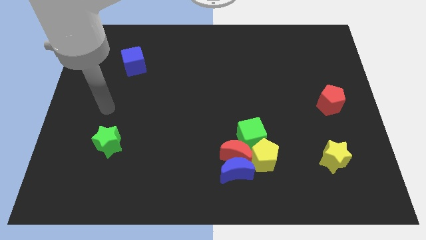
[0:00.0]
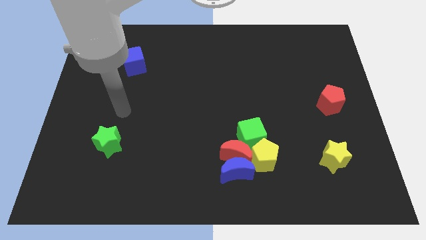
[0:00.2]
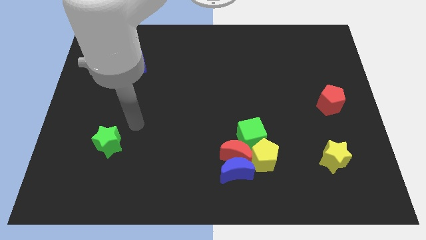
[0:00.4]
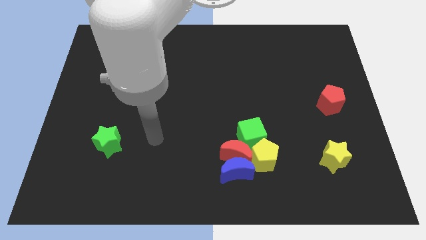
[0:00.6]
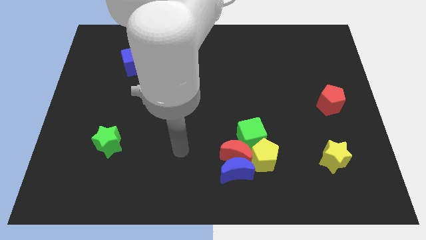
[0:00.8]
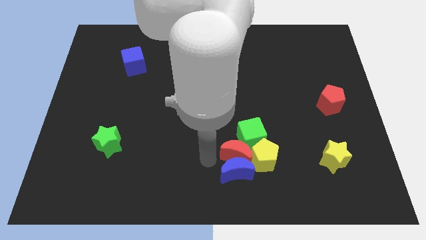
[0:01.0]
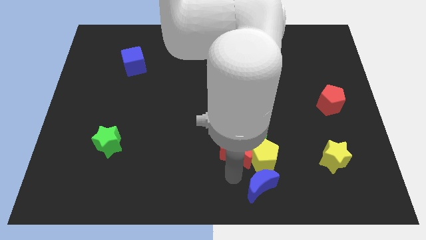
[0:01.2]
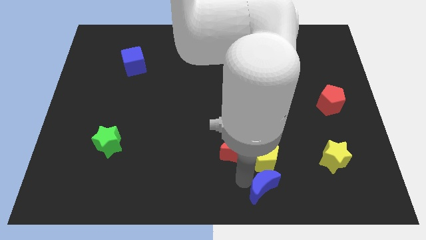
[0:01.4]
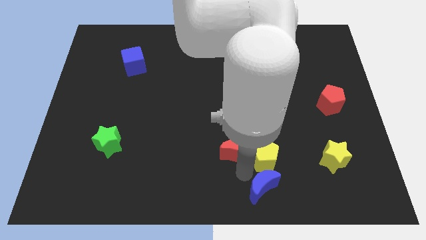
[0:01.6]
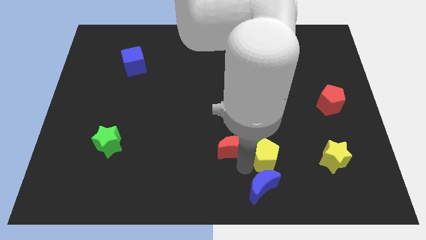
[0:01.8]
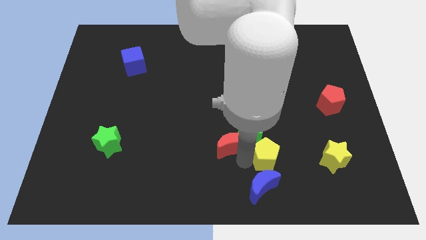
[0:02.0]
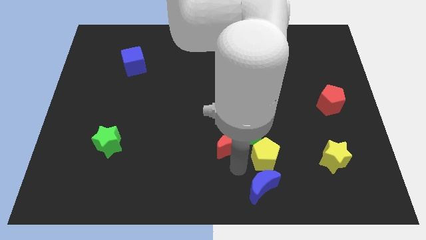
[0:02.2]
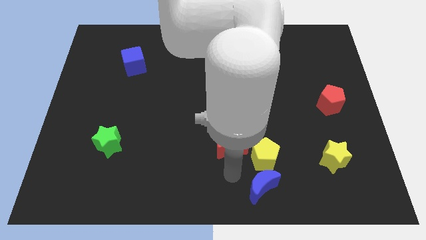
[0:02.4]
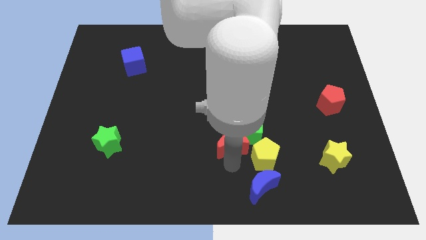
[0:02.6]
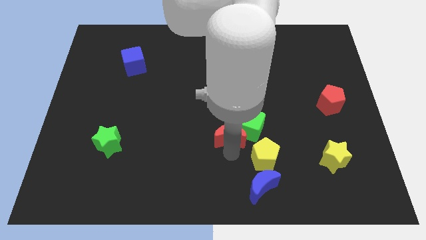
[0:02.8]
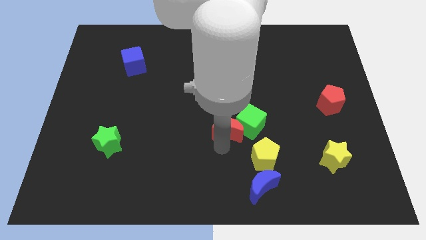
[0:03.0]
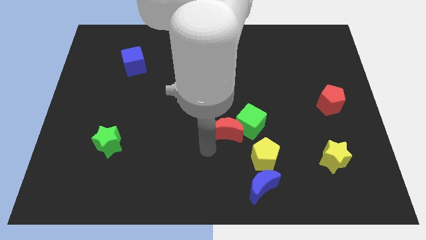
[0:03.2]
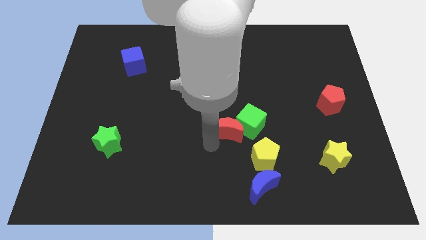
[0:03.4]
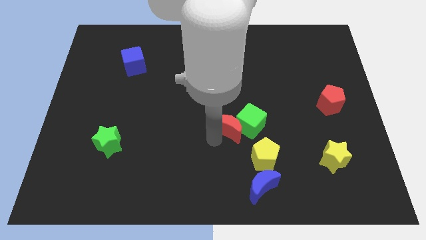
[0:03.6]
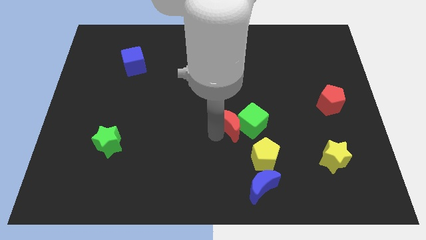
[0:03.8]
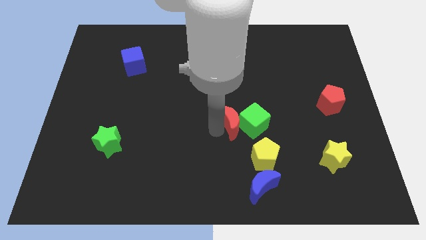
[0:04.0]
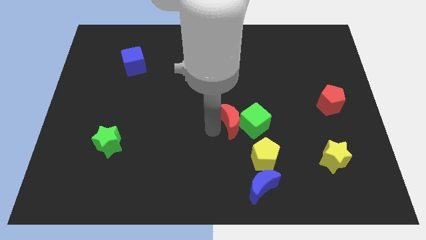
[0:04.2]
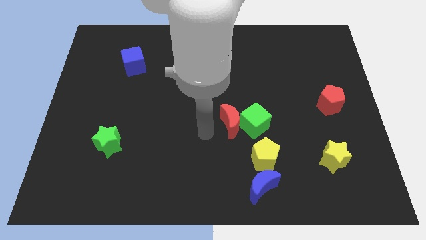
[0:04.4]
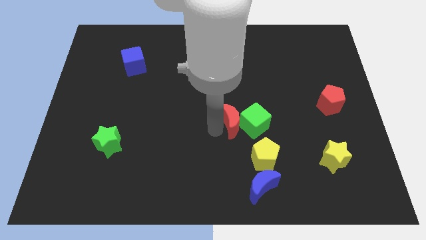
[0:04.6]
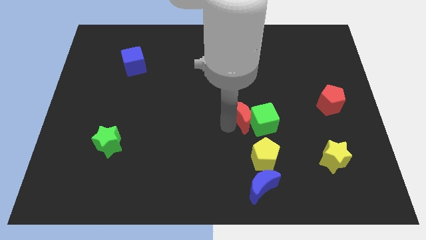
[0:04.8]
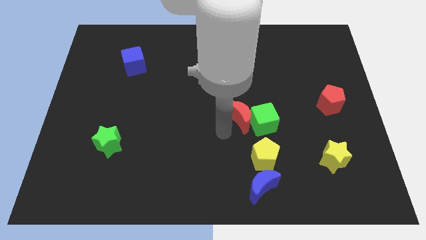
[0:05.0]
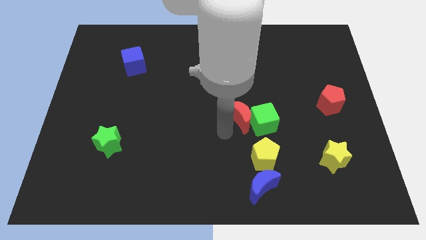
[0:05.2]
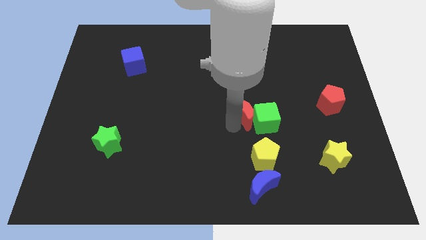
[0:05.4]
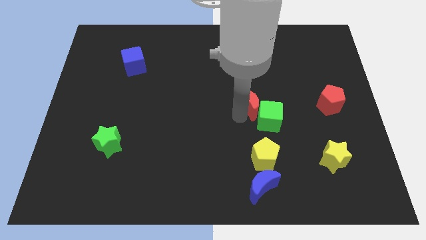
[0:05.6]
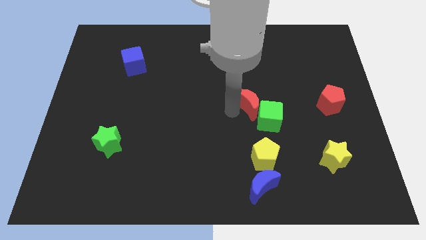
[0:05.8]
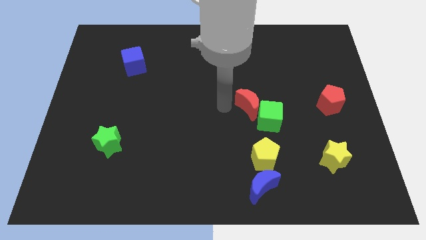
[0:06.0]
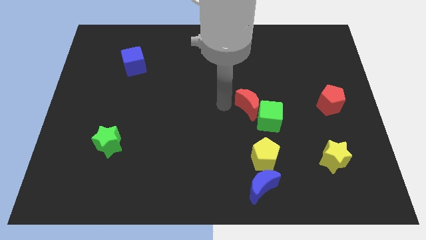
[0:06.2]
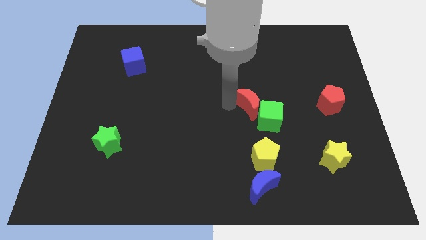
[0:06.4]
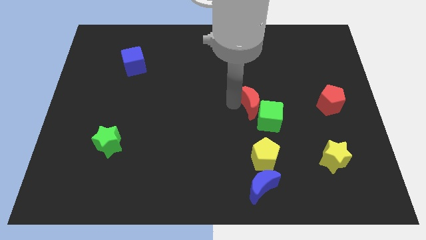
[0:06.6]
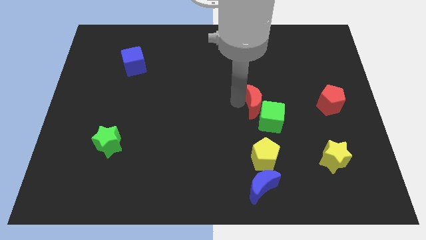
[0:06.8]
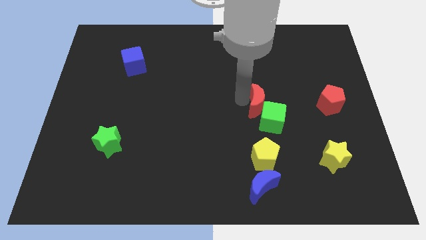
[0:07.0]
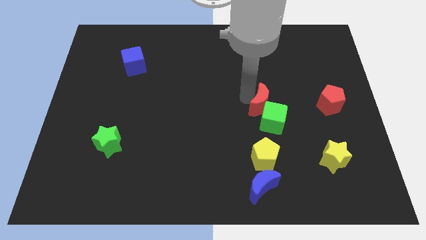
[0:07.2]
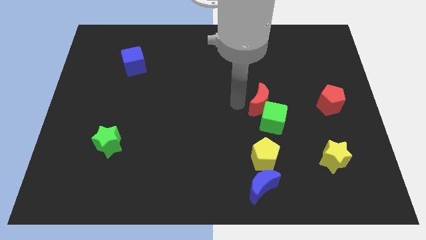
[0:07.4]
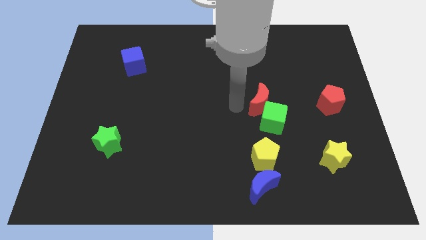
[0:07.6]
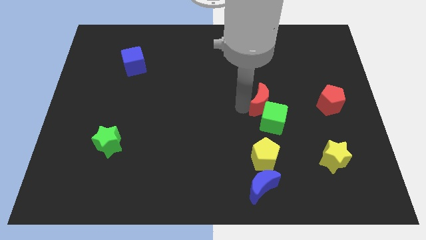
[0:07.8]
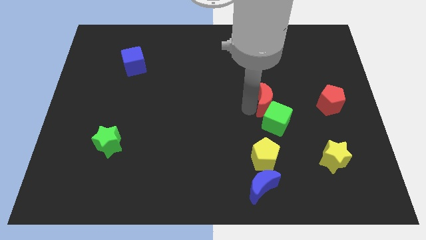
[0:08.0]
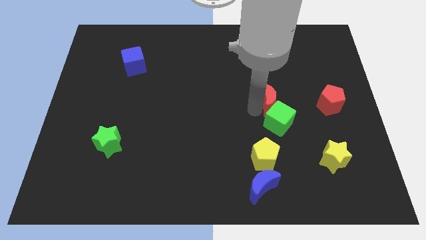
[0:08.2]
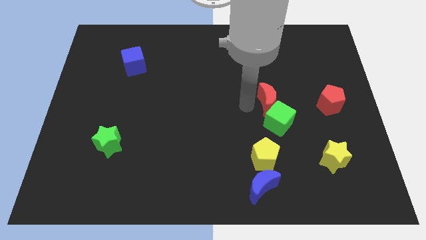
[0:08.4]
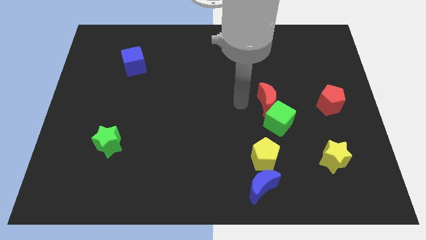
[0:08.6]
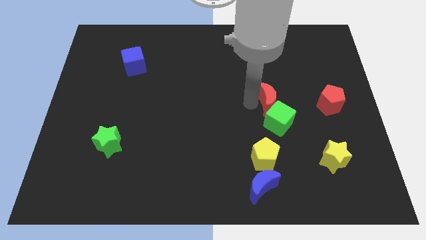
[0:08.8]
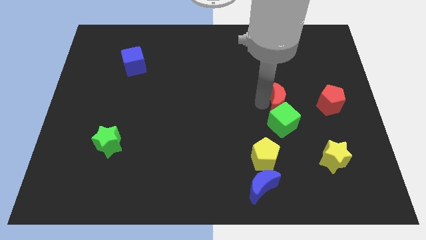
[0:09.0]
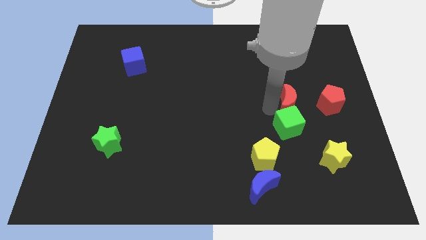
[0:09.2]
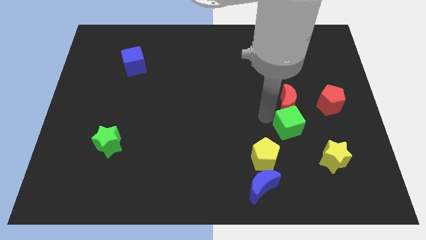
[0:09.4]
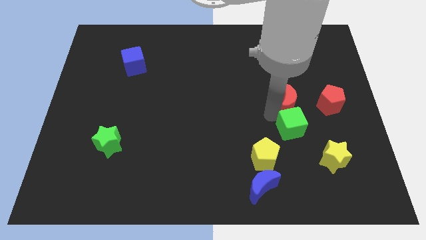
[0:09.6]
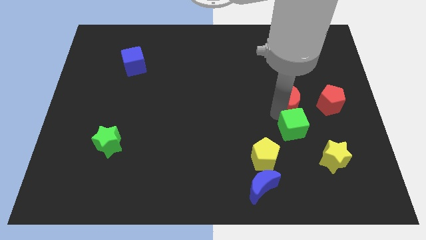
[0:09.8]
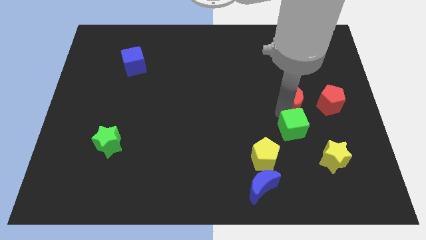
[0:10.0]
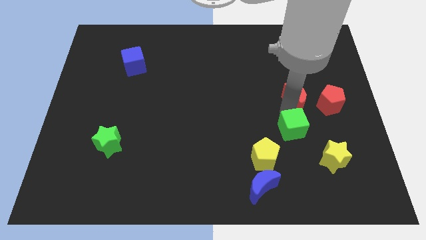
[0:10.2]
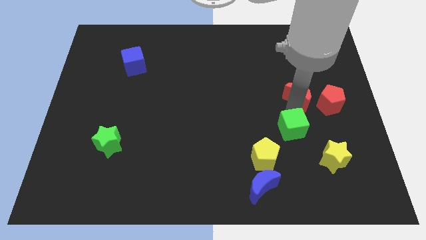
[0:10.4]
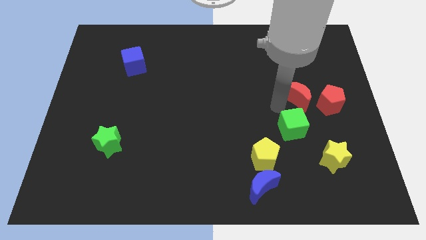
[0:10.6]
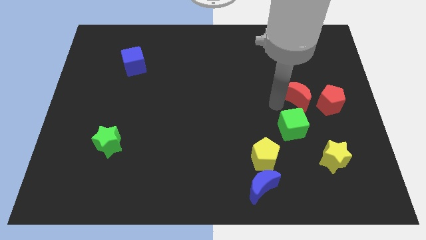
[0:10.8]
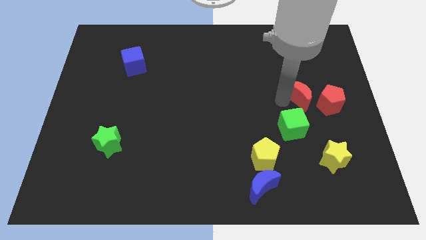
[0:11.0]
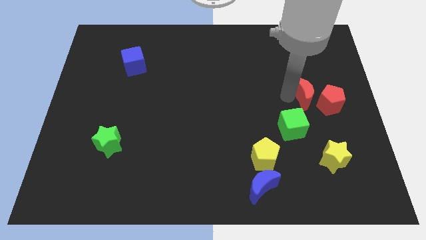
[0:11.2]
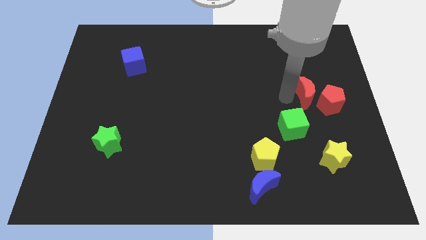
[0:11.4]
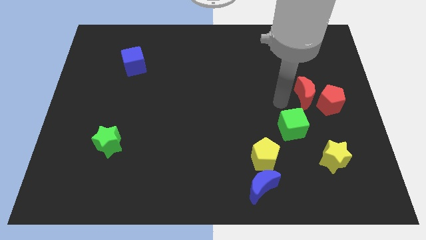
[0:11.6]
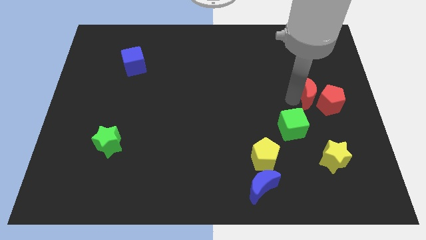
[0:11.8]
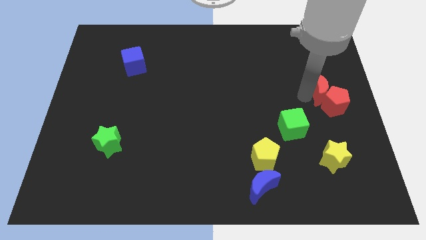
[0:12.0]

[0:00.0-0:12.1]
move the red moon to the right side

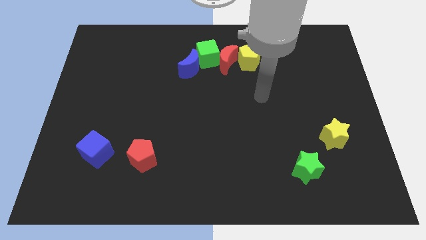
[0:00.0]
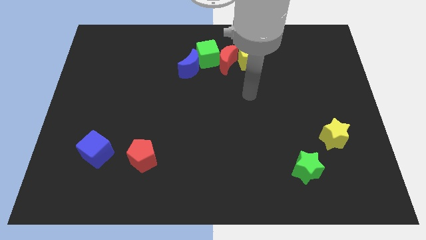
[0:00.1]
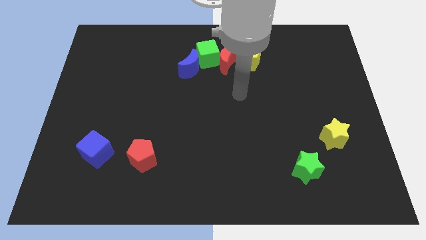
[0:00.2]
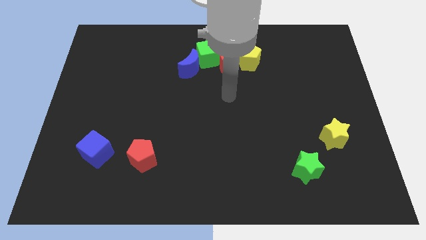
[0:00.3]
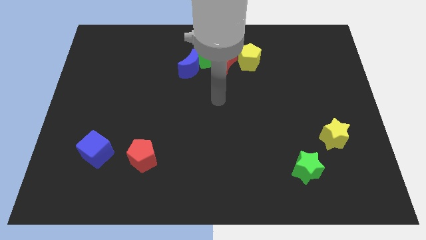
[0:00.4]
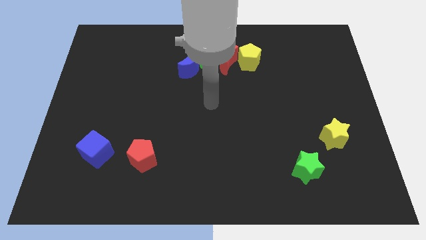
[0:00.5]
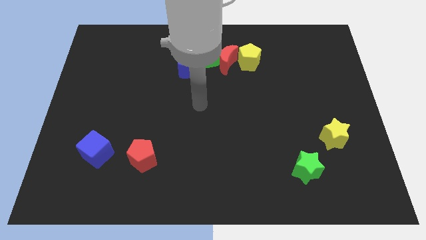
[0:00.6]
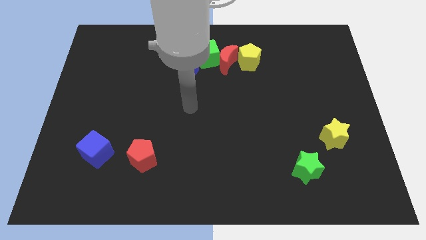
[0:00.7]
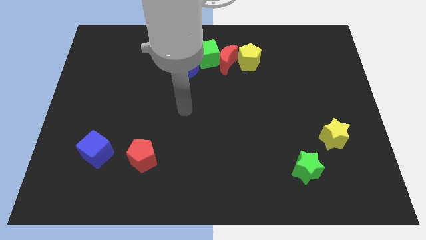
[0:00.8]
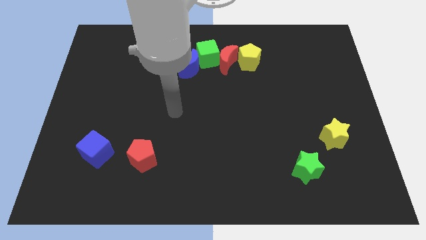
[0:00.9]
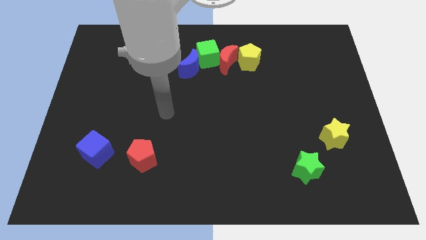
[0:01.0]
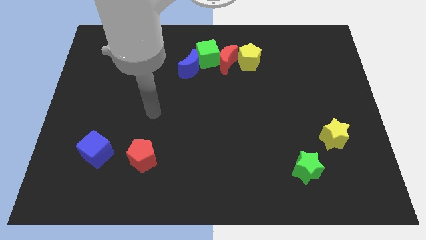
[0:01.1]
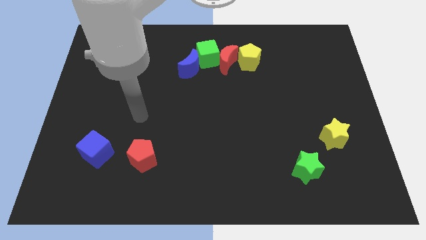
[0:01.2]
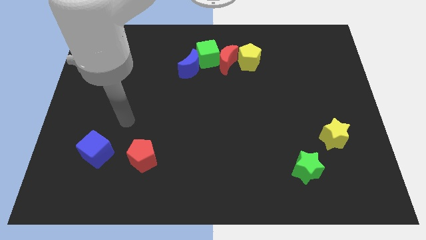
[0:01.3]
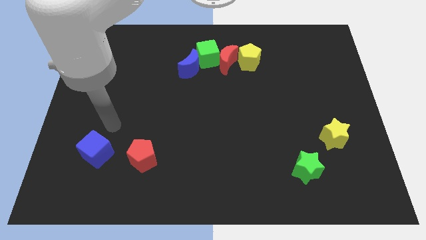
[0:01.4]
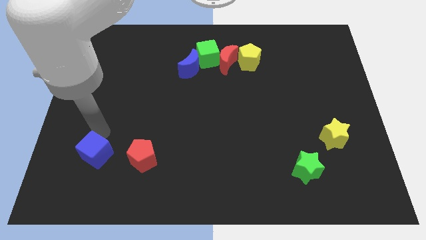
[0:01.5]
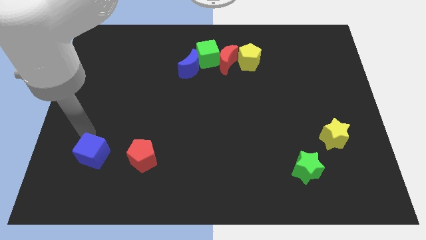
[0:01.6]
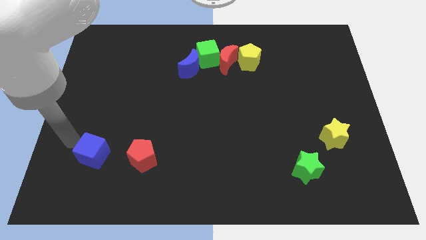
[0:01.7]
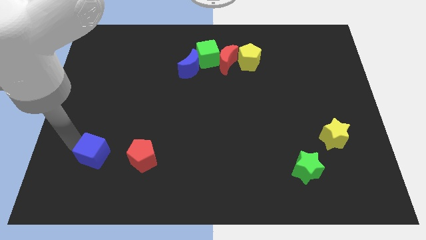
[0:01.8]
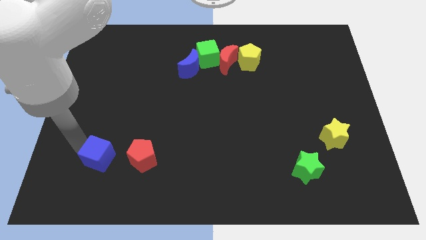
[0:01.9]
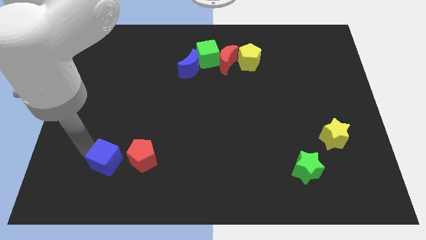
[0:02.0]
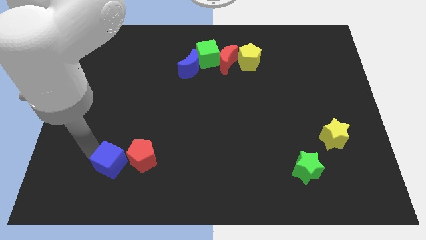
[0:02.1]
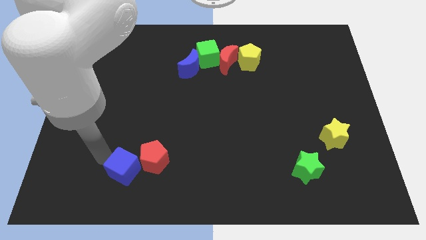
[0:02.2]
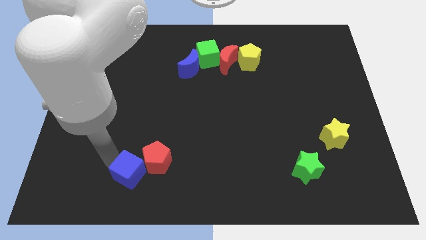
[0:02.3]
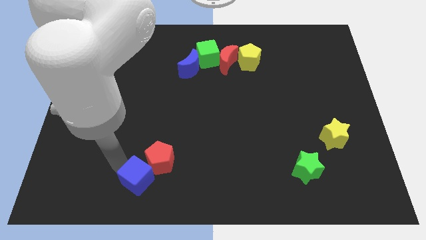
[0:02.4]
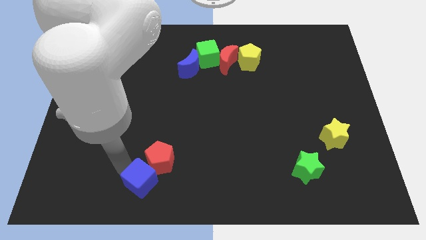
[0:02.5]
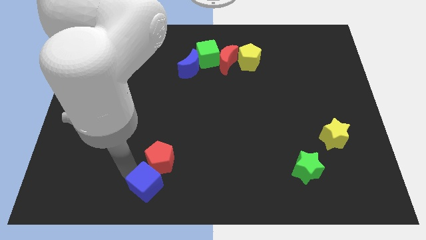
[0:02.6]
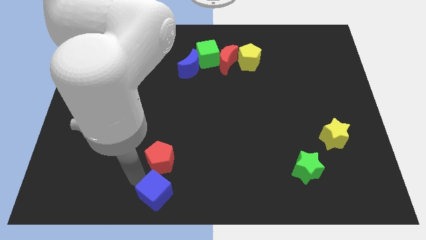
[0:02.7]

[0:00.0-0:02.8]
slide the blue cube to the bottom

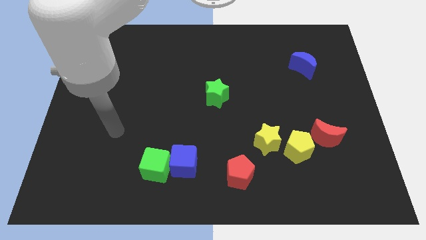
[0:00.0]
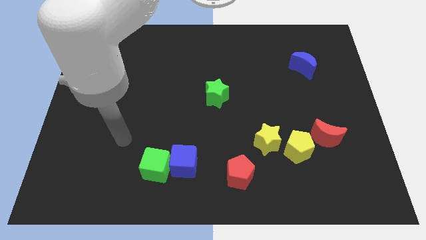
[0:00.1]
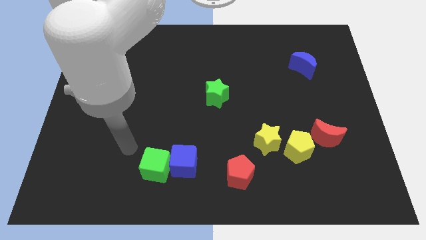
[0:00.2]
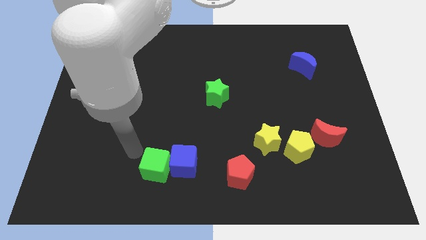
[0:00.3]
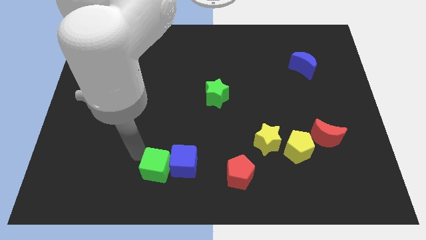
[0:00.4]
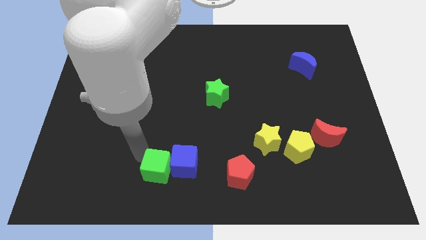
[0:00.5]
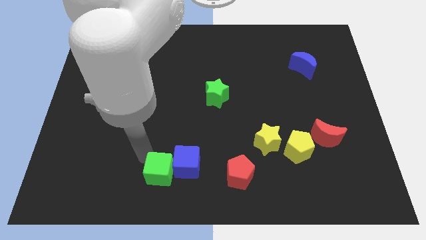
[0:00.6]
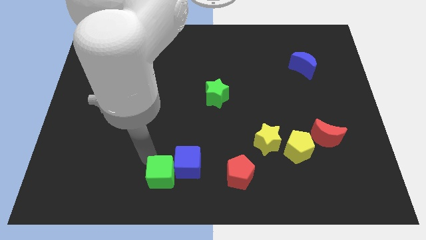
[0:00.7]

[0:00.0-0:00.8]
move the green cube to the bottom
